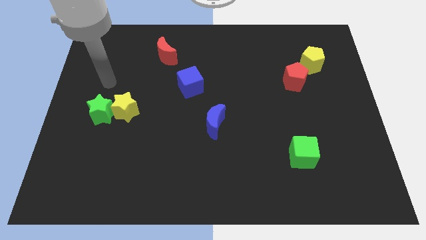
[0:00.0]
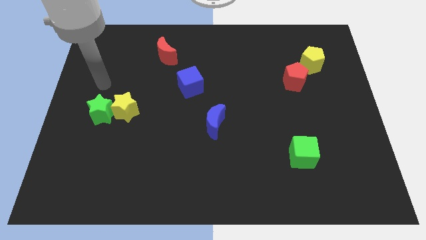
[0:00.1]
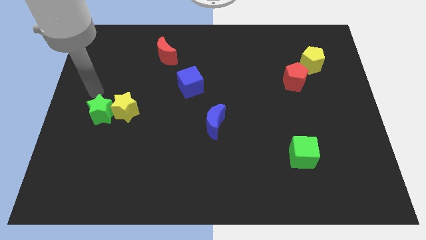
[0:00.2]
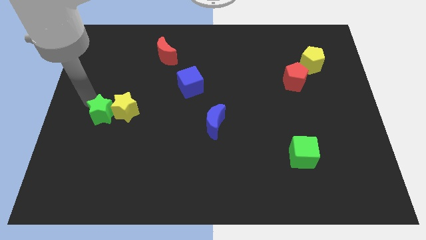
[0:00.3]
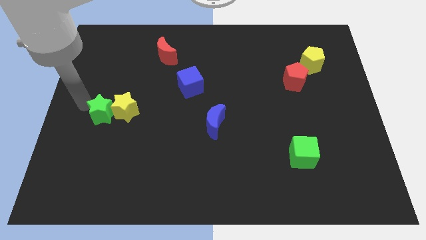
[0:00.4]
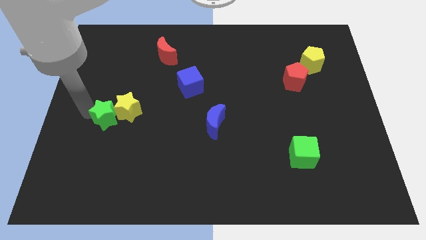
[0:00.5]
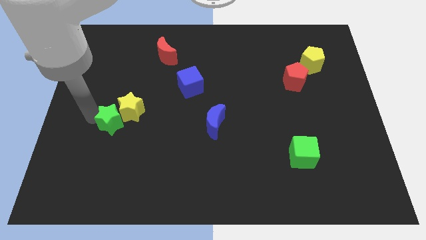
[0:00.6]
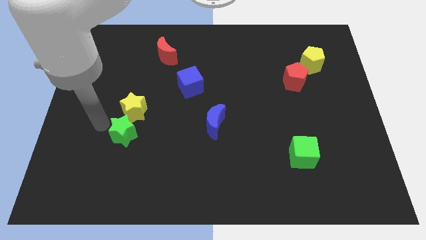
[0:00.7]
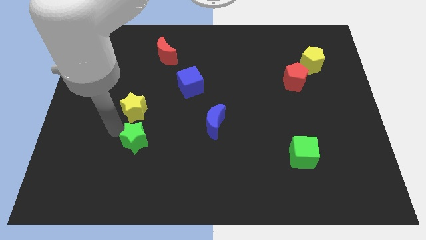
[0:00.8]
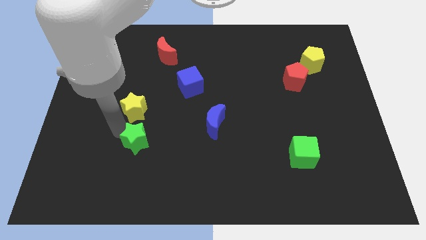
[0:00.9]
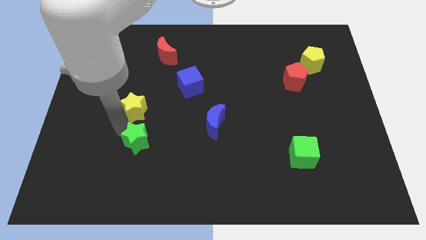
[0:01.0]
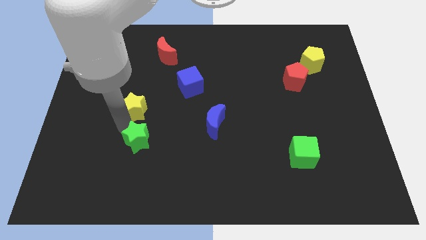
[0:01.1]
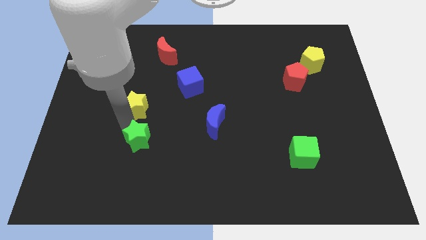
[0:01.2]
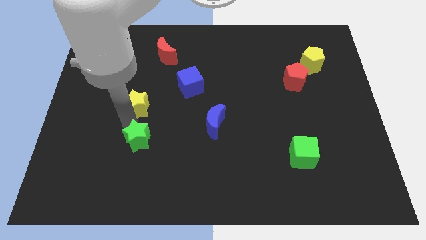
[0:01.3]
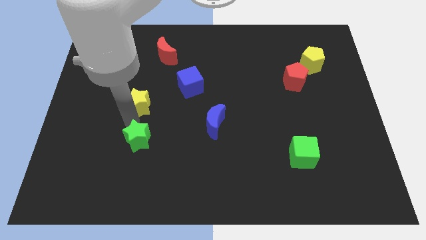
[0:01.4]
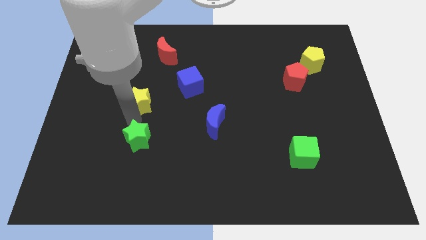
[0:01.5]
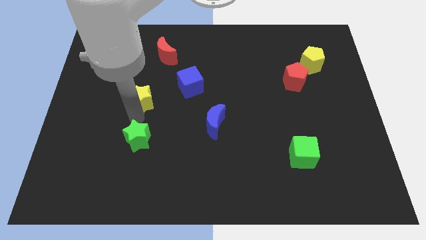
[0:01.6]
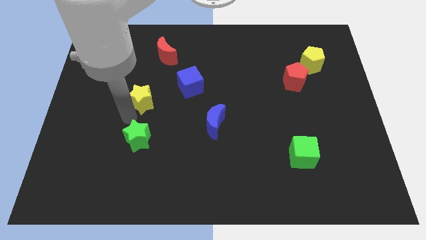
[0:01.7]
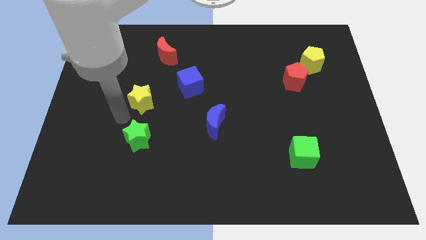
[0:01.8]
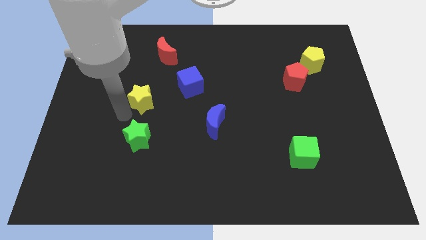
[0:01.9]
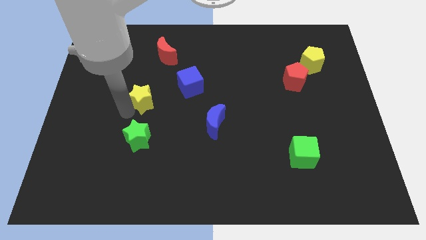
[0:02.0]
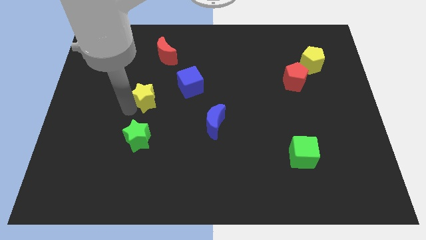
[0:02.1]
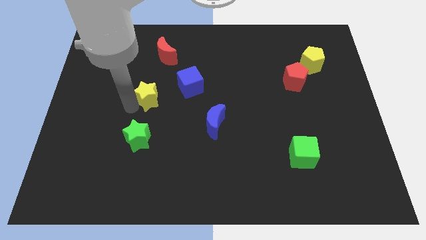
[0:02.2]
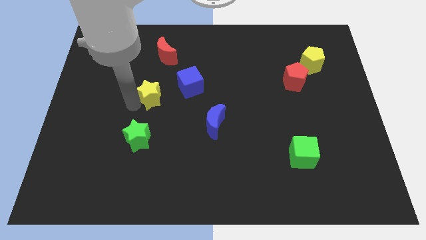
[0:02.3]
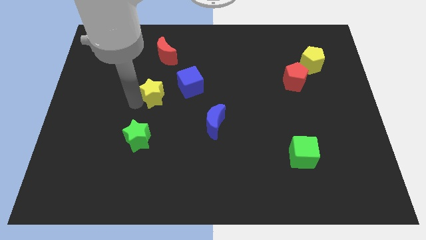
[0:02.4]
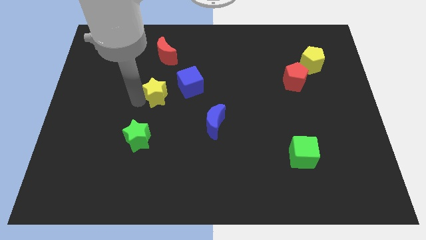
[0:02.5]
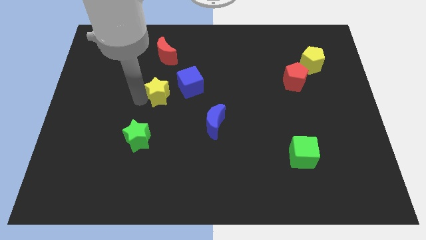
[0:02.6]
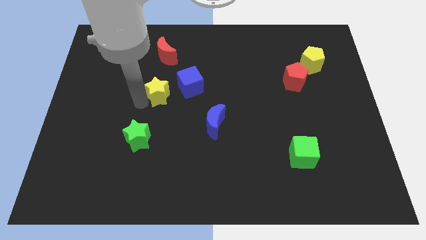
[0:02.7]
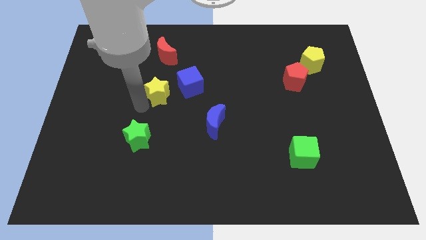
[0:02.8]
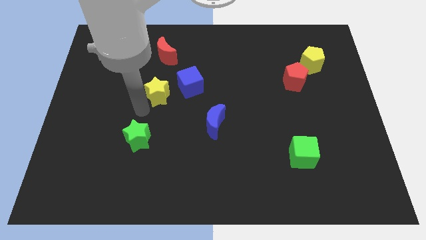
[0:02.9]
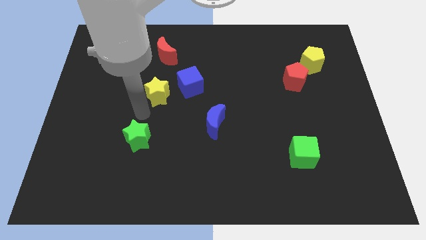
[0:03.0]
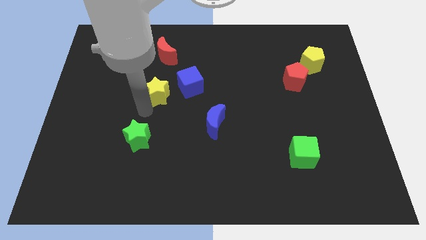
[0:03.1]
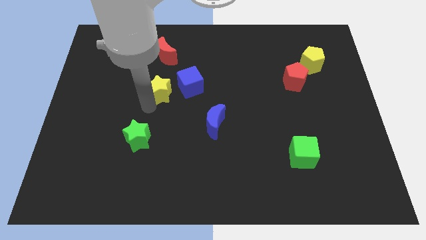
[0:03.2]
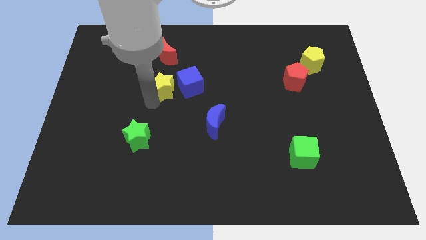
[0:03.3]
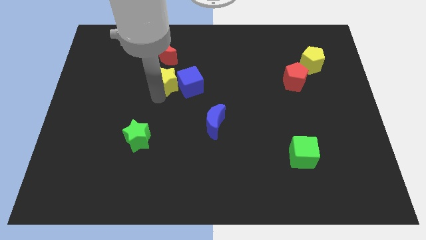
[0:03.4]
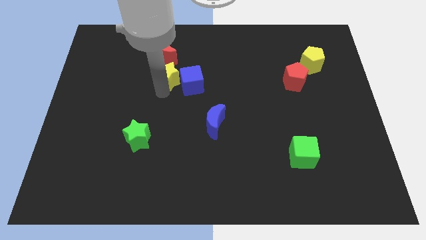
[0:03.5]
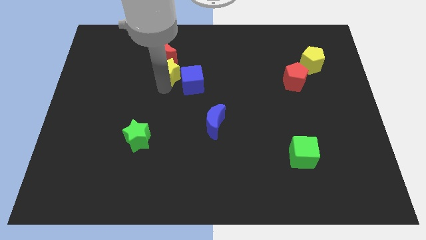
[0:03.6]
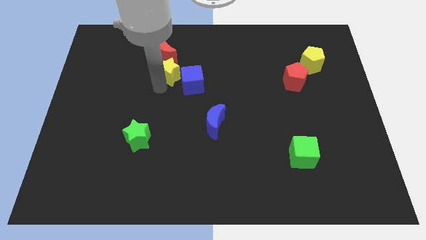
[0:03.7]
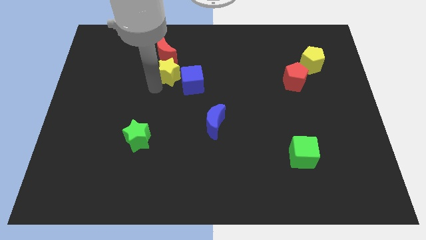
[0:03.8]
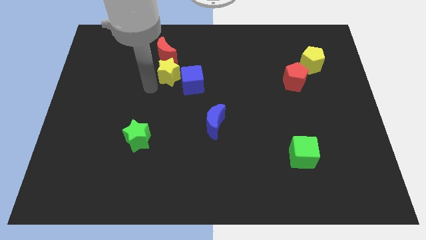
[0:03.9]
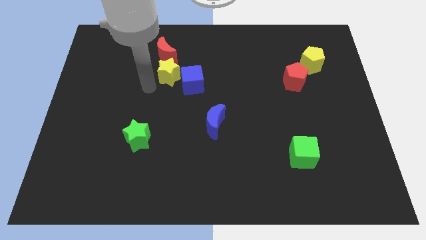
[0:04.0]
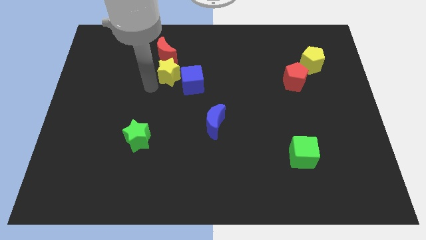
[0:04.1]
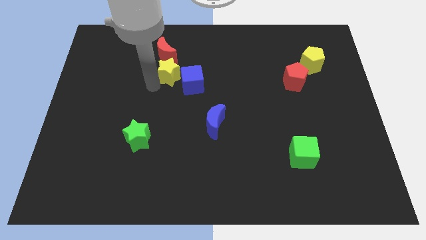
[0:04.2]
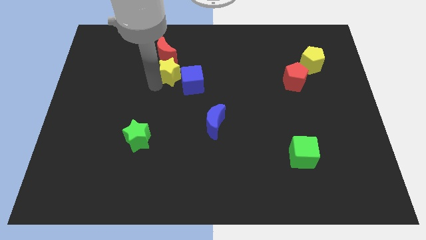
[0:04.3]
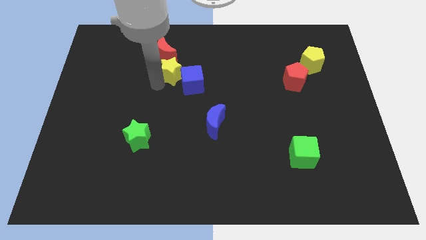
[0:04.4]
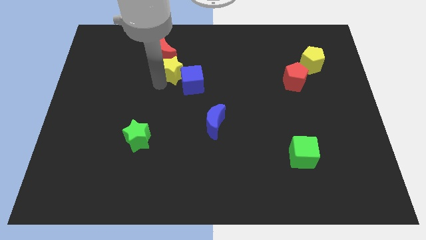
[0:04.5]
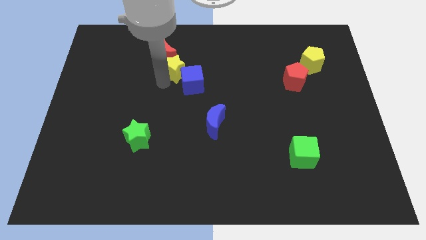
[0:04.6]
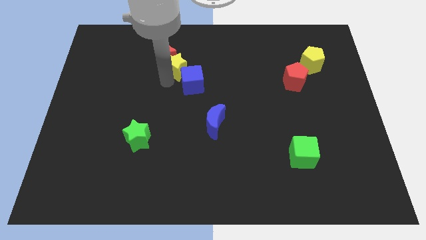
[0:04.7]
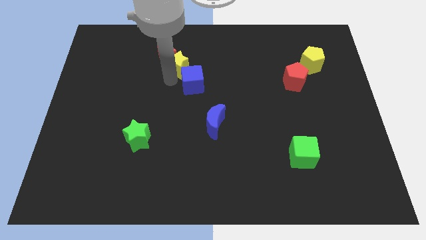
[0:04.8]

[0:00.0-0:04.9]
push the yellow star just right of the red moon

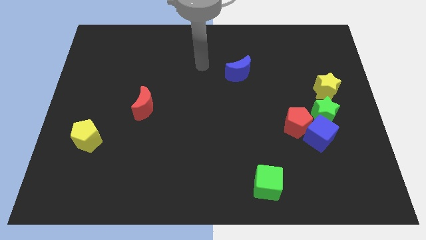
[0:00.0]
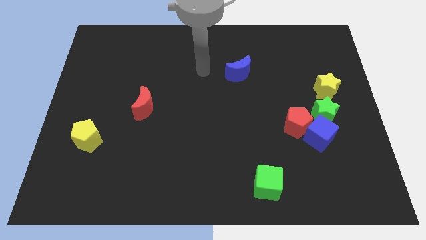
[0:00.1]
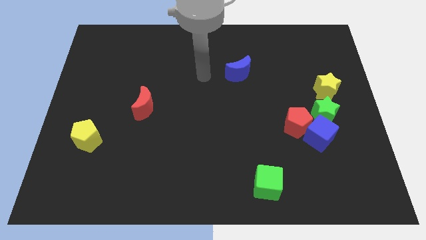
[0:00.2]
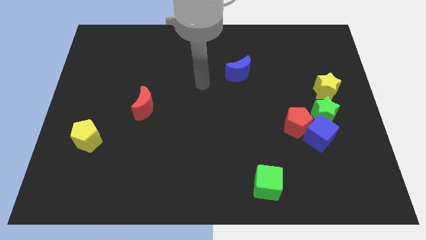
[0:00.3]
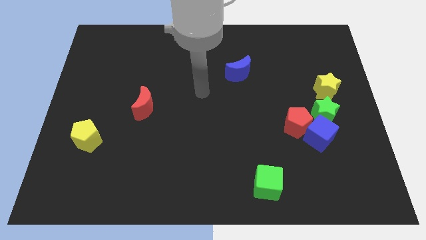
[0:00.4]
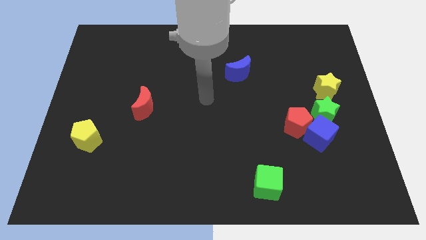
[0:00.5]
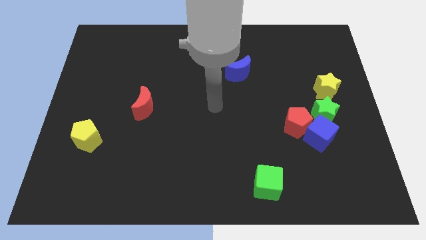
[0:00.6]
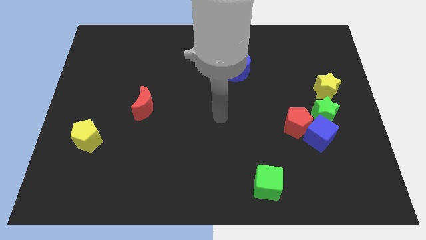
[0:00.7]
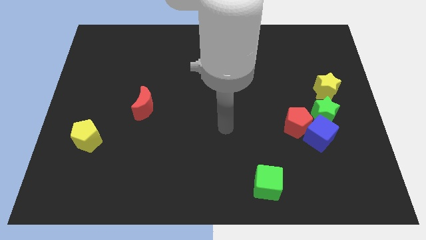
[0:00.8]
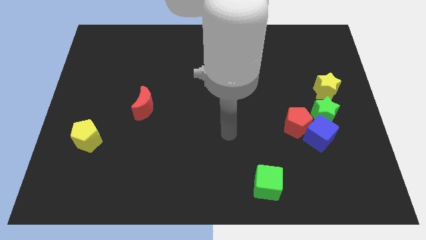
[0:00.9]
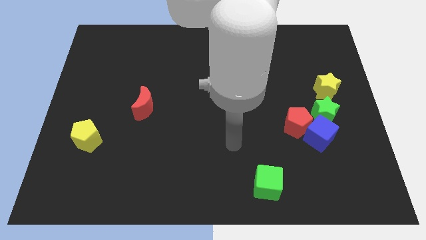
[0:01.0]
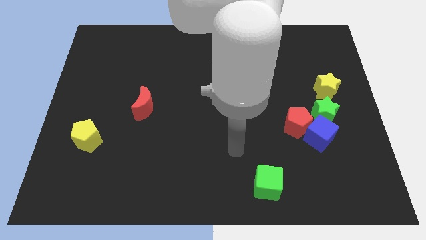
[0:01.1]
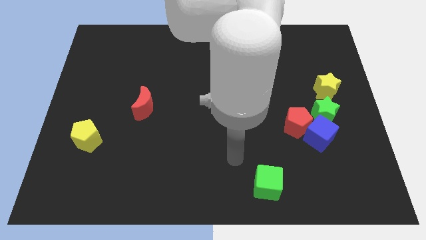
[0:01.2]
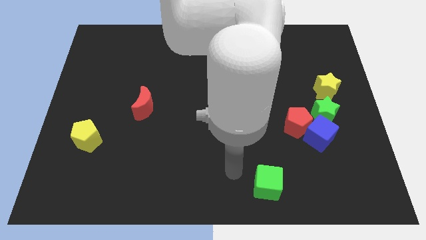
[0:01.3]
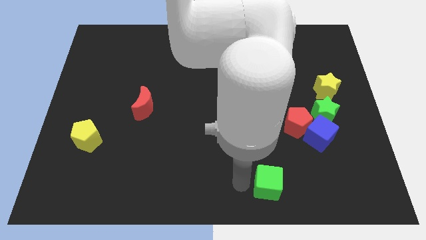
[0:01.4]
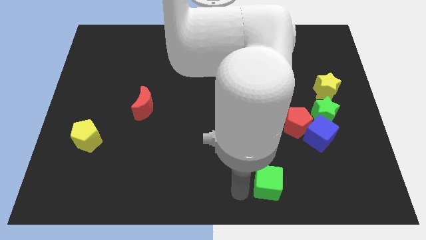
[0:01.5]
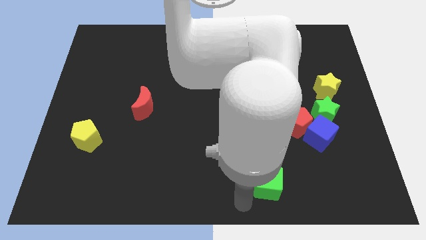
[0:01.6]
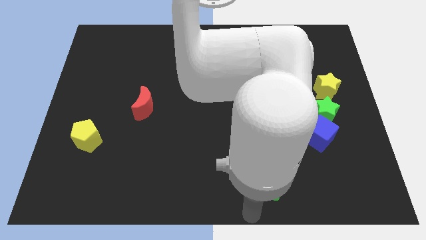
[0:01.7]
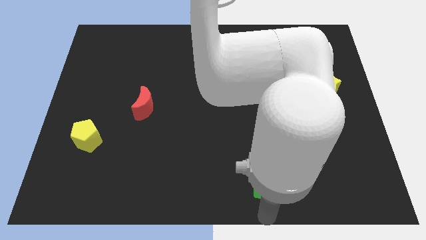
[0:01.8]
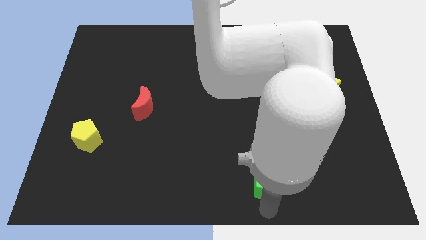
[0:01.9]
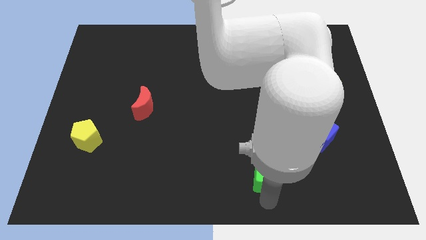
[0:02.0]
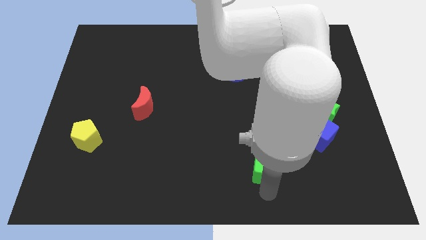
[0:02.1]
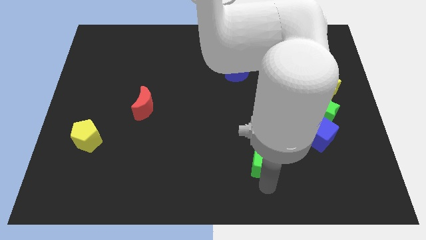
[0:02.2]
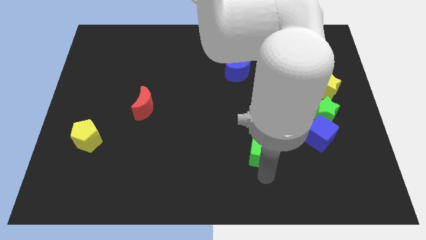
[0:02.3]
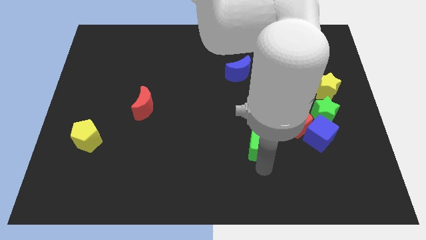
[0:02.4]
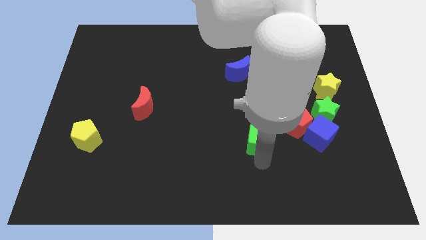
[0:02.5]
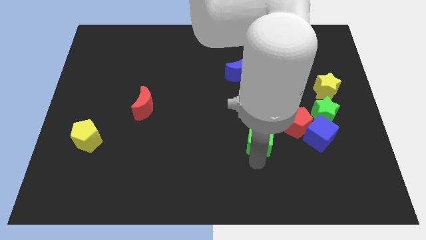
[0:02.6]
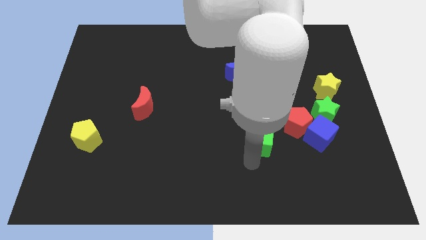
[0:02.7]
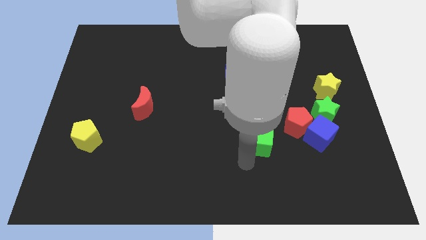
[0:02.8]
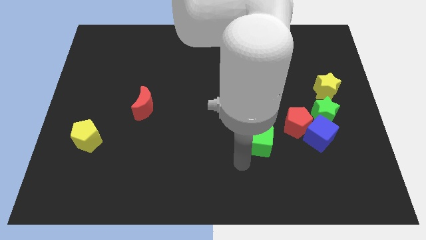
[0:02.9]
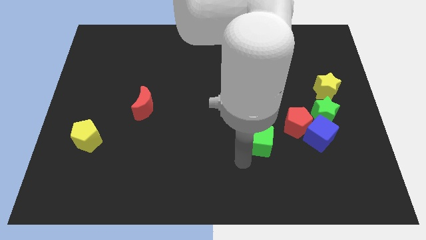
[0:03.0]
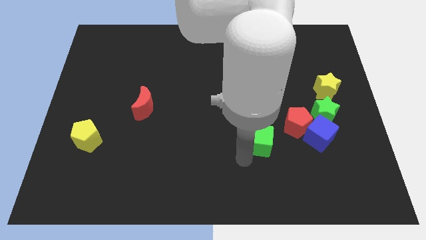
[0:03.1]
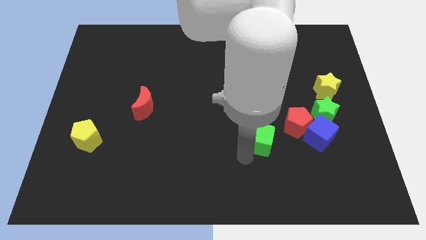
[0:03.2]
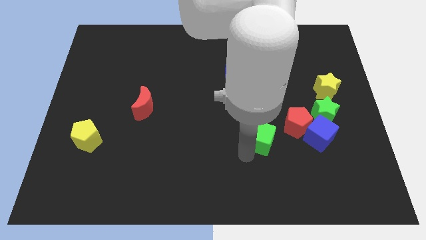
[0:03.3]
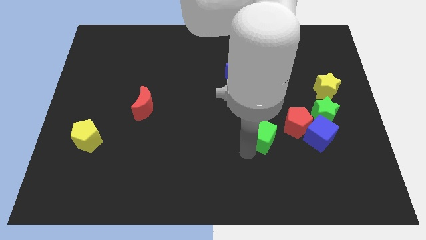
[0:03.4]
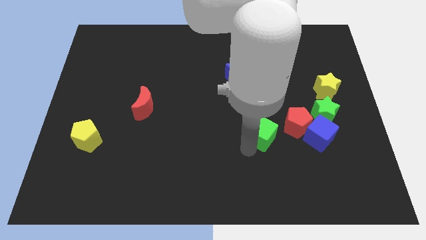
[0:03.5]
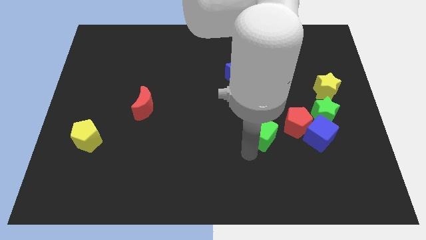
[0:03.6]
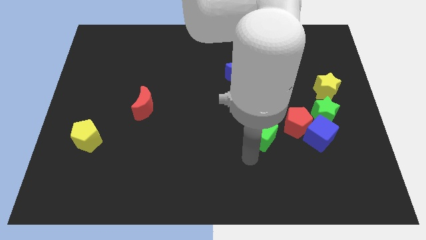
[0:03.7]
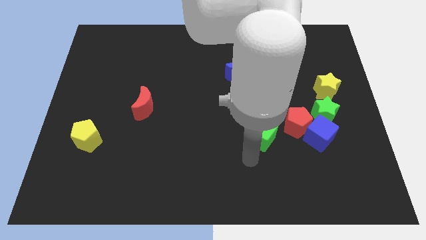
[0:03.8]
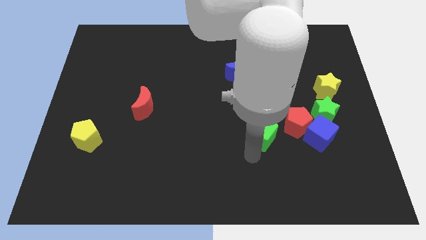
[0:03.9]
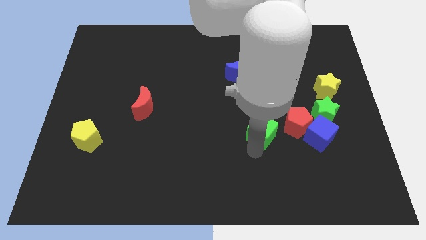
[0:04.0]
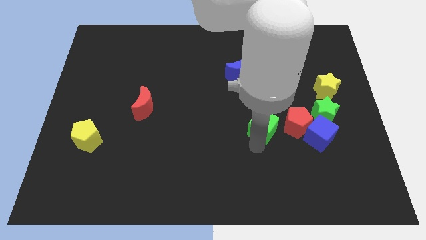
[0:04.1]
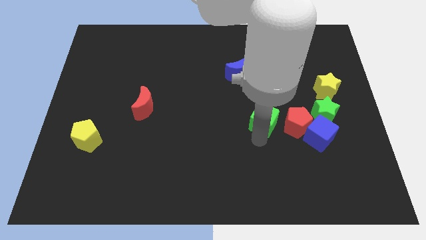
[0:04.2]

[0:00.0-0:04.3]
put the green cube to the top left side of the red pentagon
